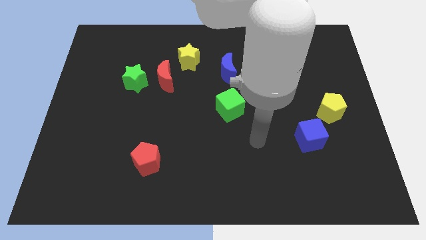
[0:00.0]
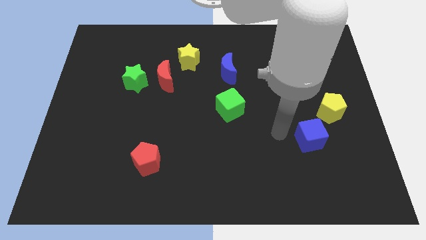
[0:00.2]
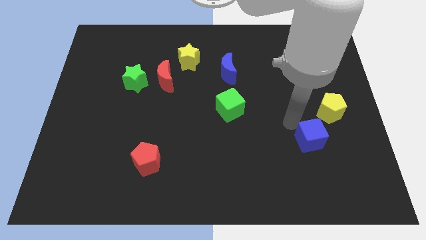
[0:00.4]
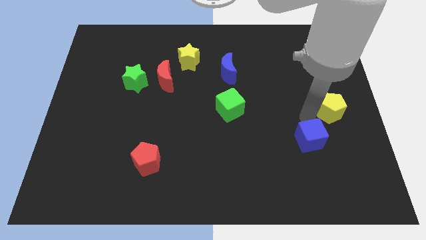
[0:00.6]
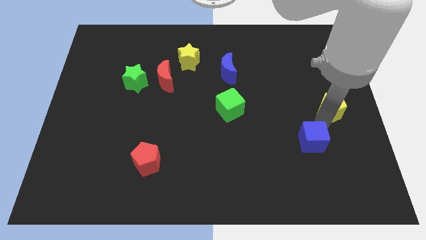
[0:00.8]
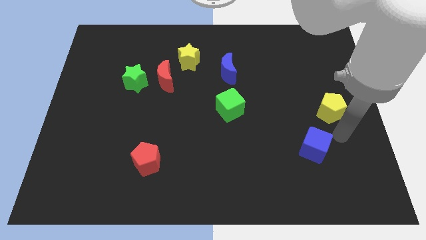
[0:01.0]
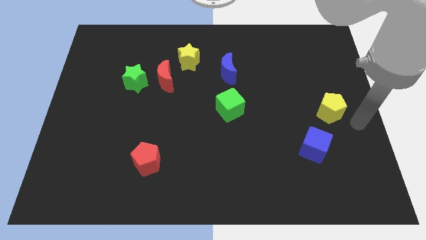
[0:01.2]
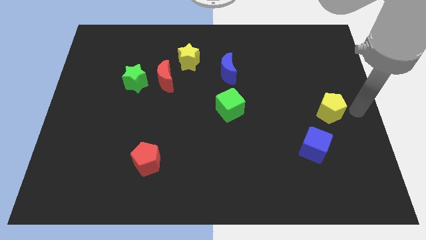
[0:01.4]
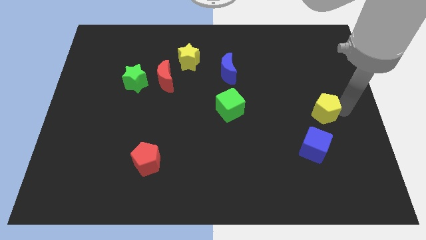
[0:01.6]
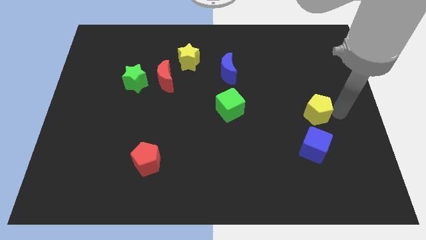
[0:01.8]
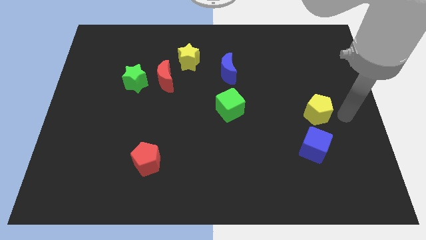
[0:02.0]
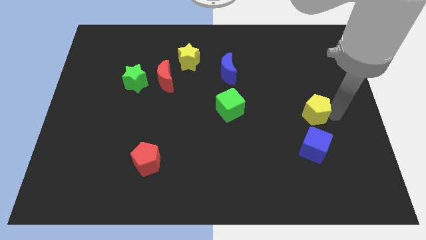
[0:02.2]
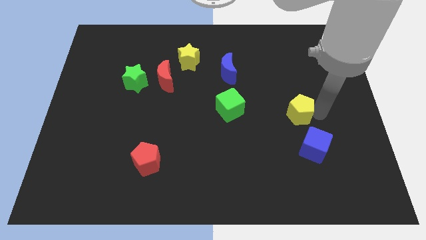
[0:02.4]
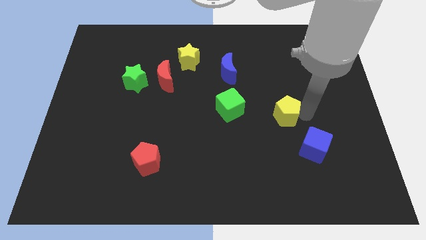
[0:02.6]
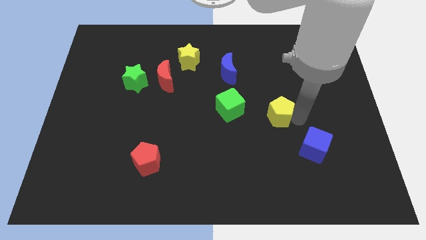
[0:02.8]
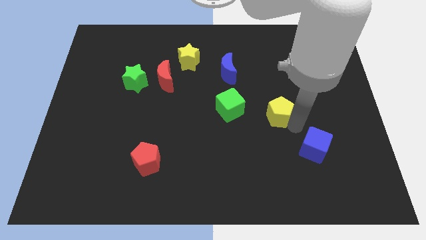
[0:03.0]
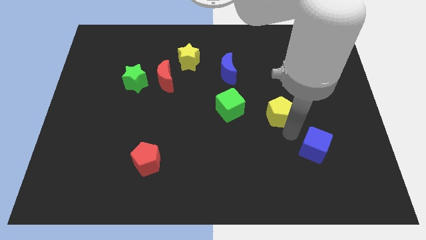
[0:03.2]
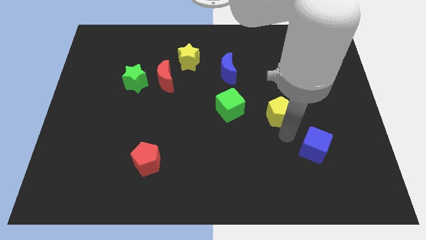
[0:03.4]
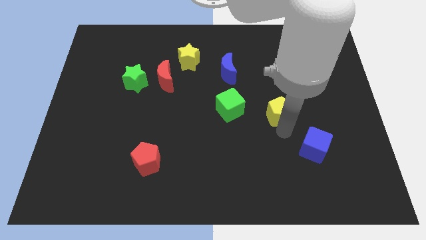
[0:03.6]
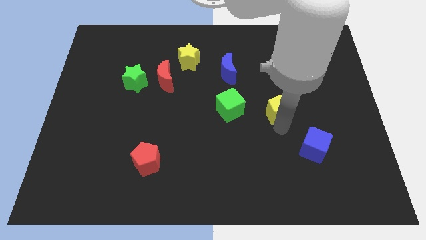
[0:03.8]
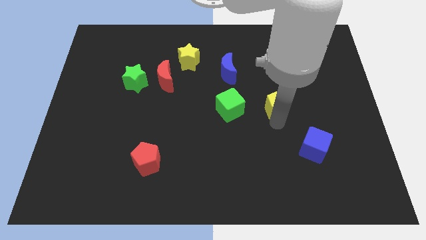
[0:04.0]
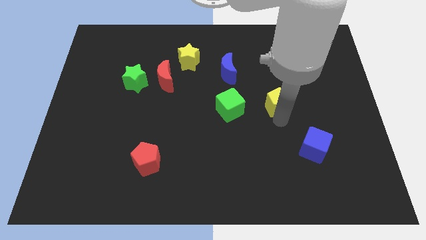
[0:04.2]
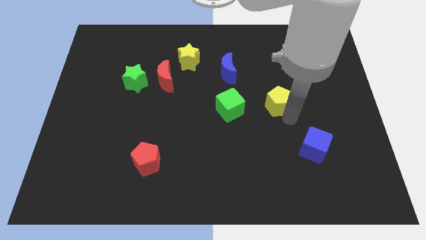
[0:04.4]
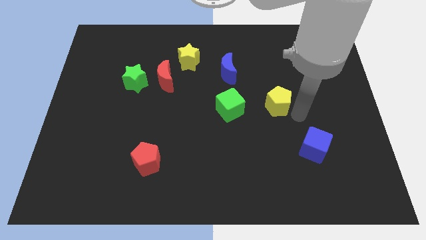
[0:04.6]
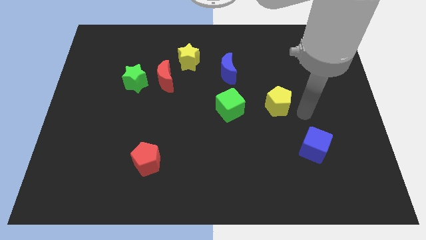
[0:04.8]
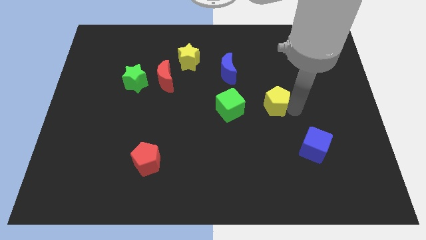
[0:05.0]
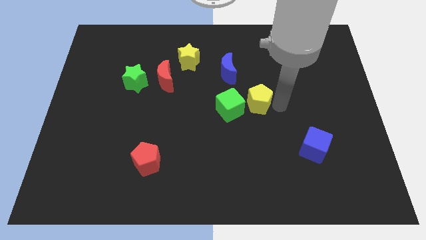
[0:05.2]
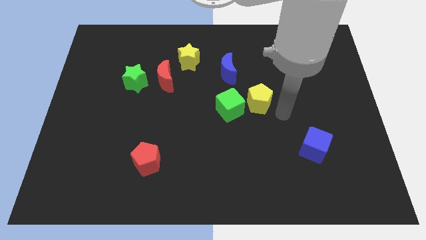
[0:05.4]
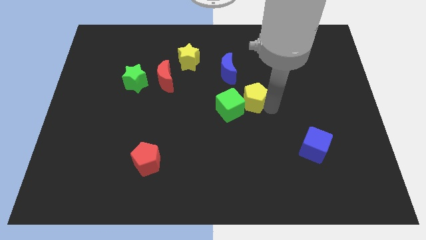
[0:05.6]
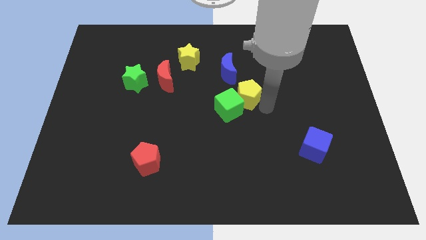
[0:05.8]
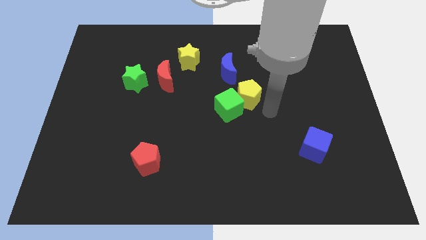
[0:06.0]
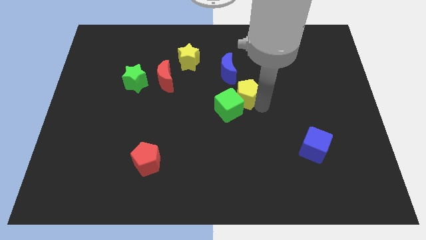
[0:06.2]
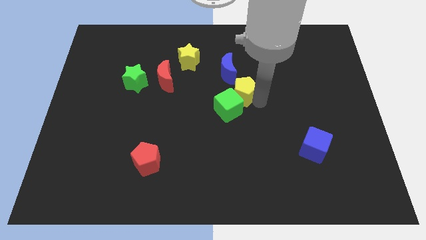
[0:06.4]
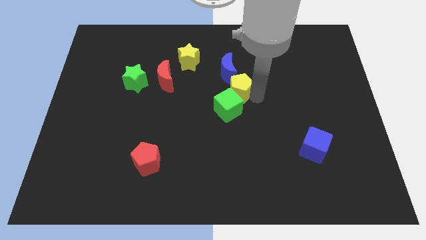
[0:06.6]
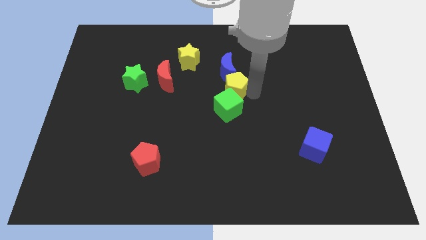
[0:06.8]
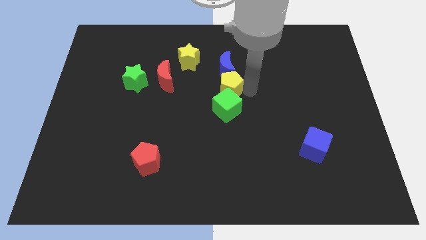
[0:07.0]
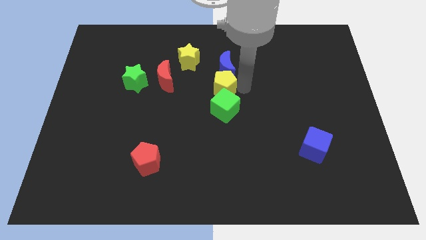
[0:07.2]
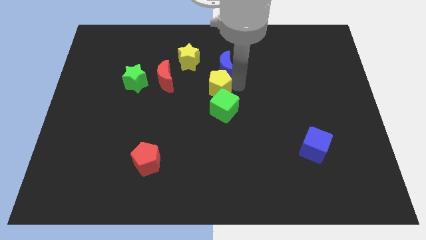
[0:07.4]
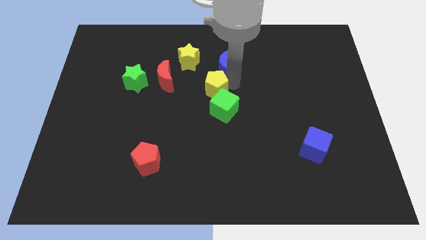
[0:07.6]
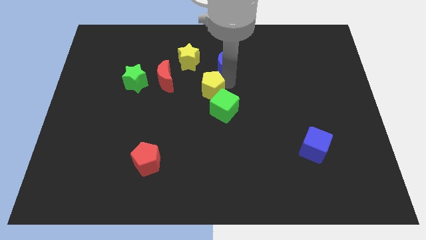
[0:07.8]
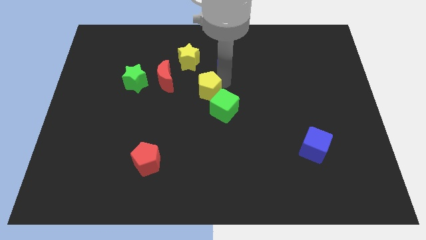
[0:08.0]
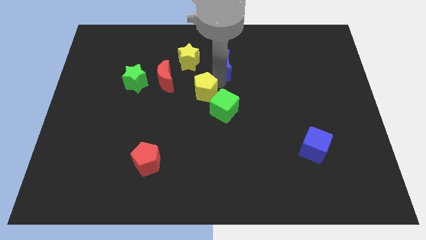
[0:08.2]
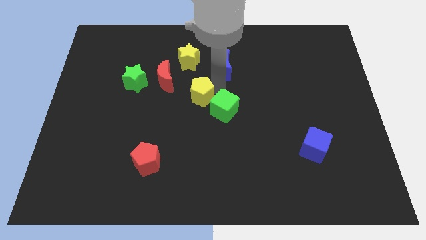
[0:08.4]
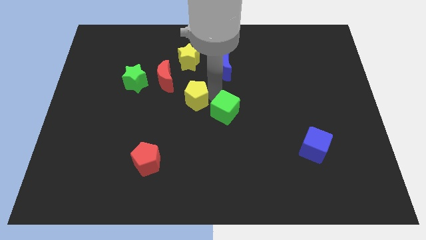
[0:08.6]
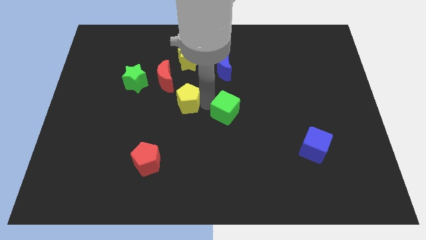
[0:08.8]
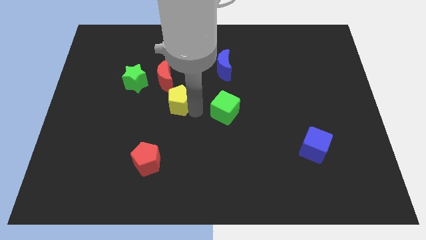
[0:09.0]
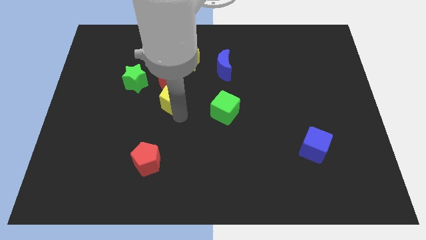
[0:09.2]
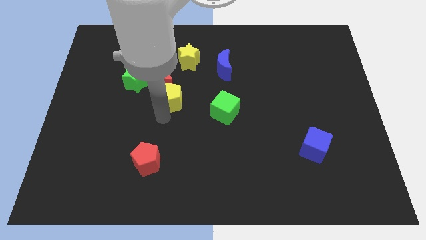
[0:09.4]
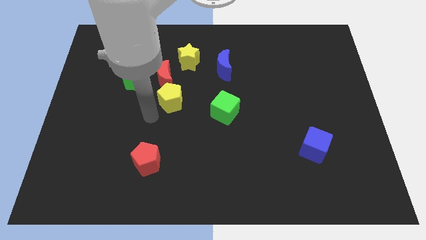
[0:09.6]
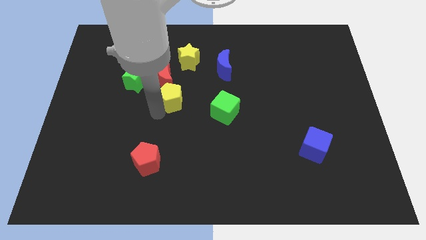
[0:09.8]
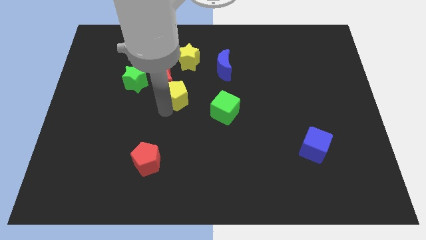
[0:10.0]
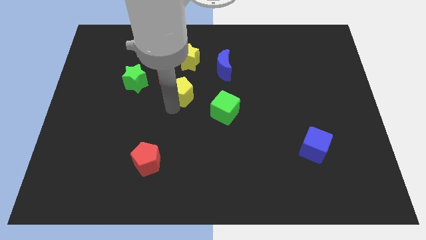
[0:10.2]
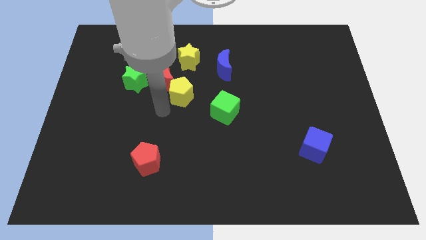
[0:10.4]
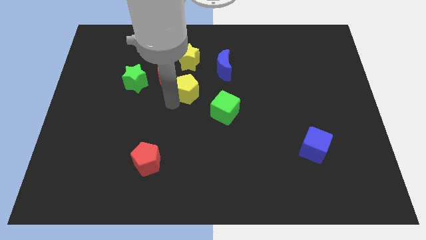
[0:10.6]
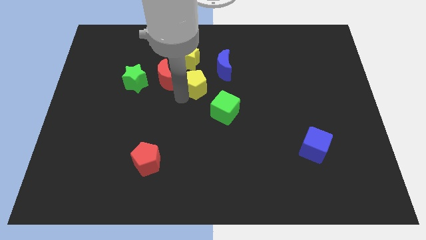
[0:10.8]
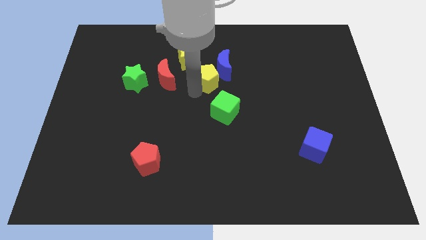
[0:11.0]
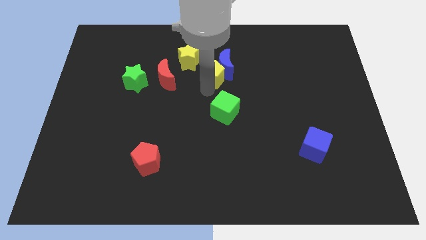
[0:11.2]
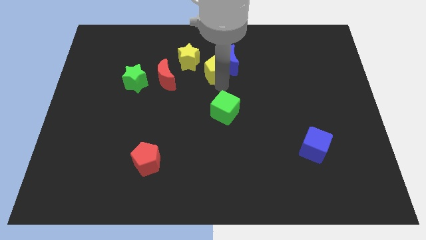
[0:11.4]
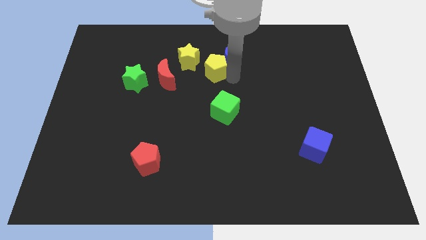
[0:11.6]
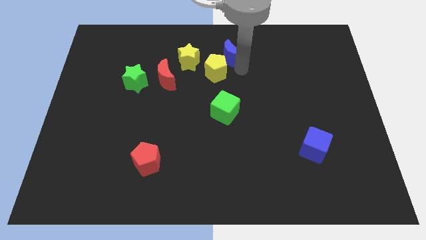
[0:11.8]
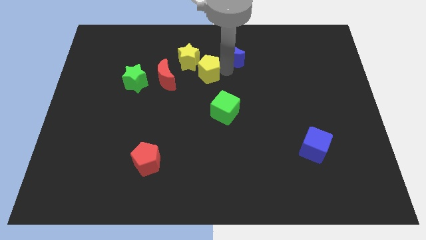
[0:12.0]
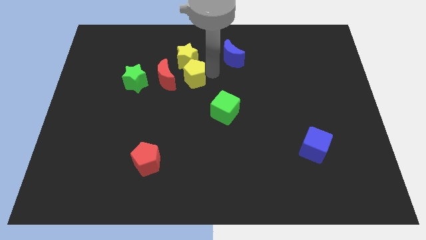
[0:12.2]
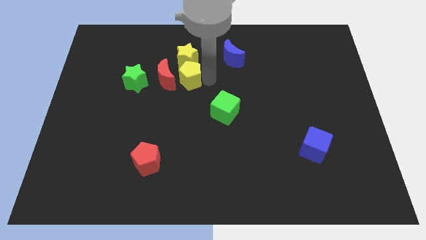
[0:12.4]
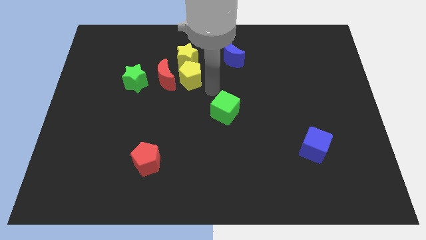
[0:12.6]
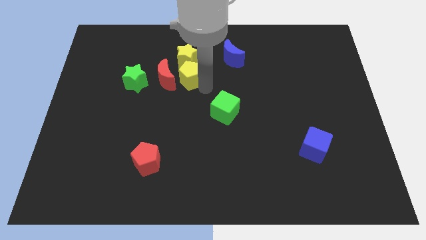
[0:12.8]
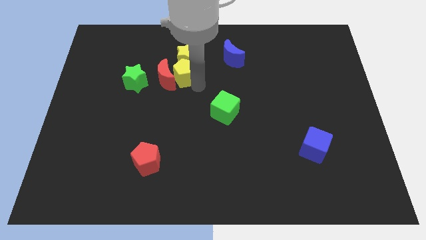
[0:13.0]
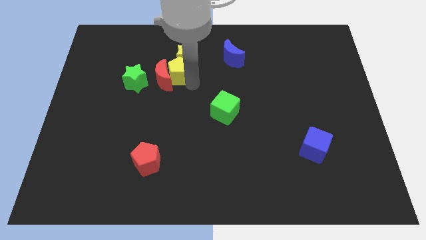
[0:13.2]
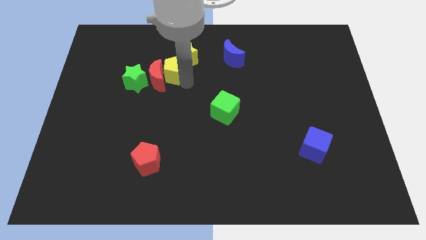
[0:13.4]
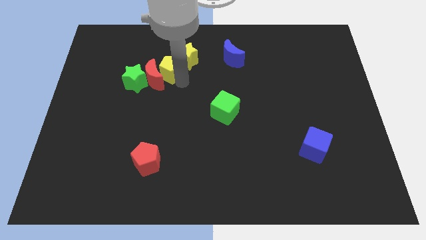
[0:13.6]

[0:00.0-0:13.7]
slide the yellow pentagon to the left side of the yellow star
